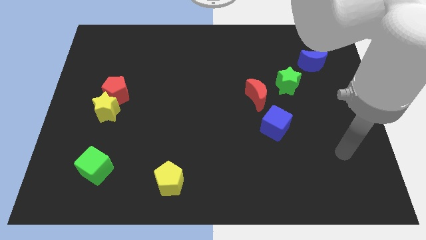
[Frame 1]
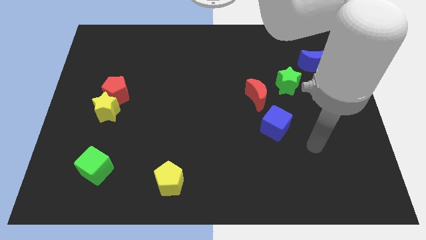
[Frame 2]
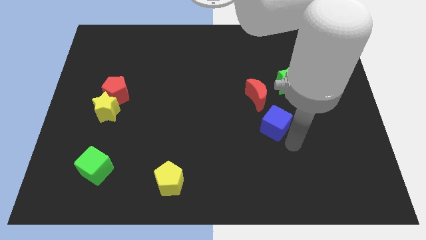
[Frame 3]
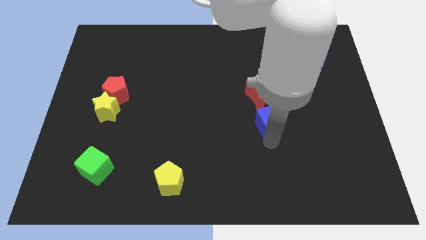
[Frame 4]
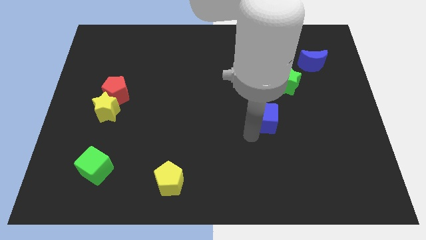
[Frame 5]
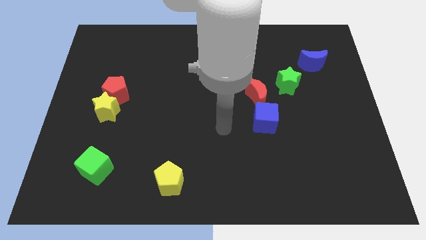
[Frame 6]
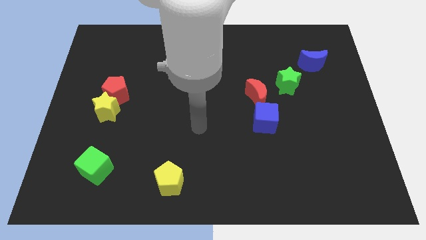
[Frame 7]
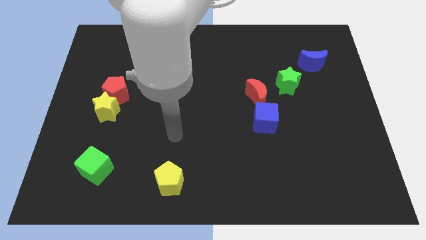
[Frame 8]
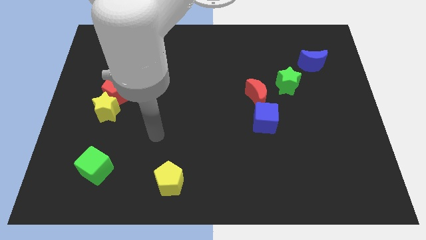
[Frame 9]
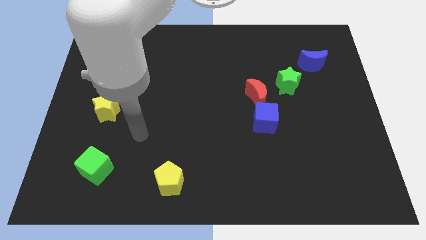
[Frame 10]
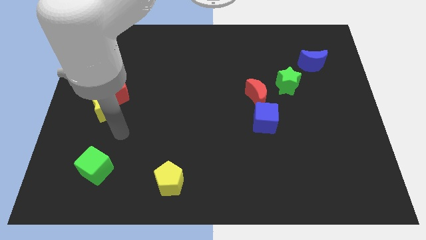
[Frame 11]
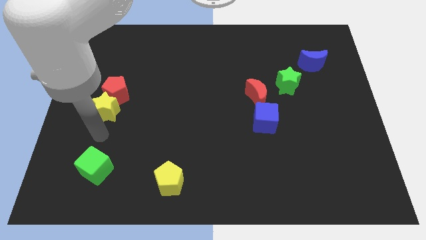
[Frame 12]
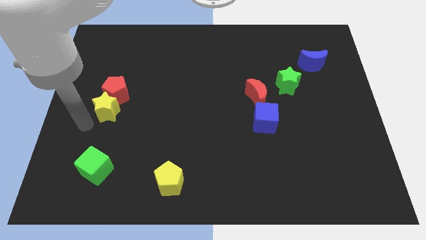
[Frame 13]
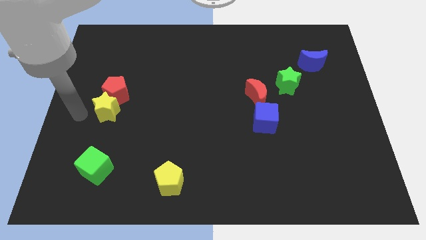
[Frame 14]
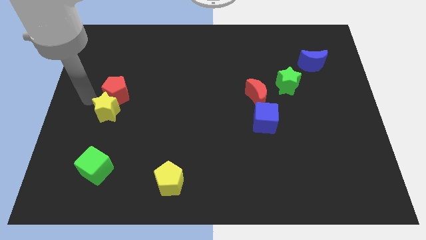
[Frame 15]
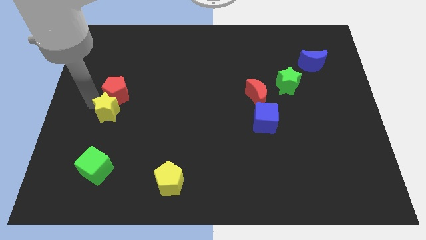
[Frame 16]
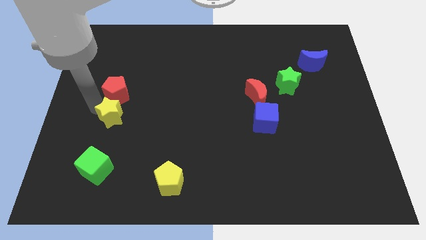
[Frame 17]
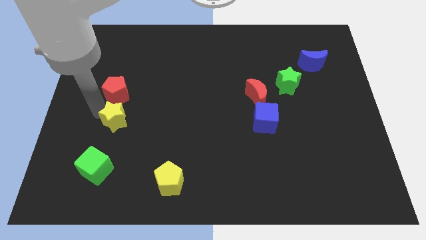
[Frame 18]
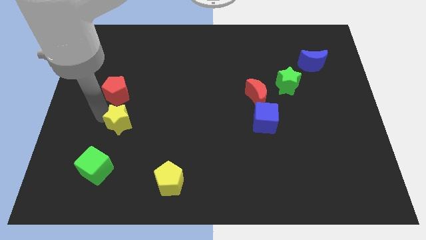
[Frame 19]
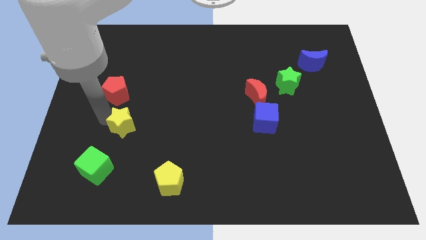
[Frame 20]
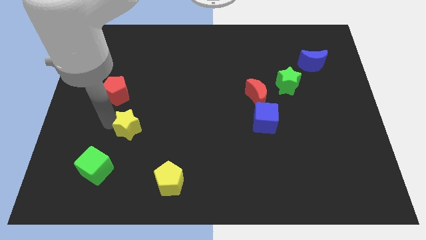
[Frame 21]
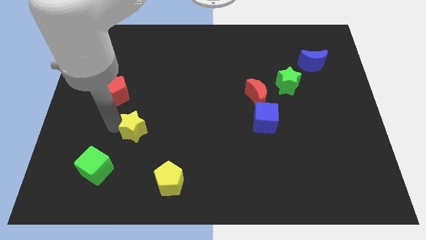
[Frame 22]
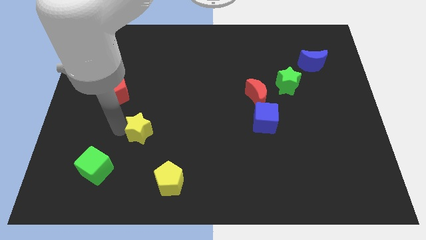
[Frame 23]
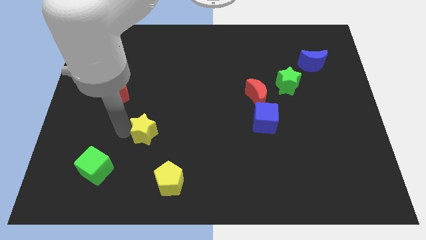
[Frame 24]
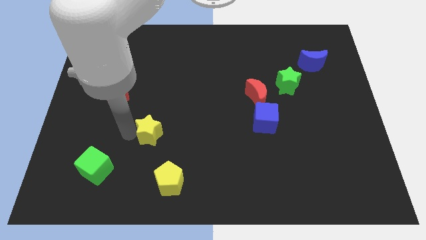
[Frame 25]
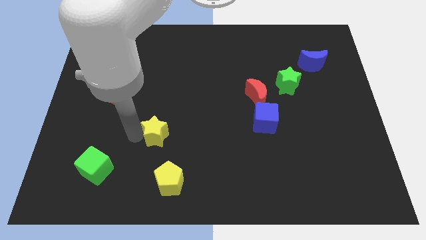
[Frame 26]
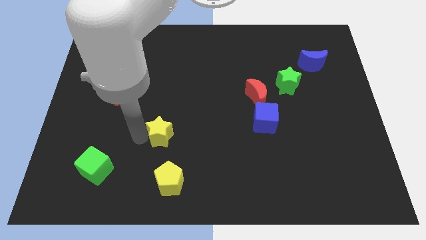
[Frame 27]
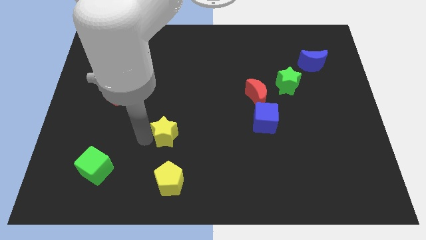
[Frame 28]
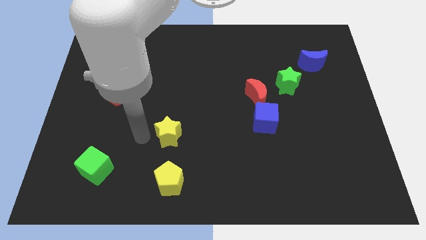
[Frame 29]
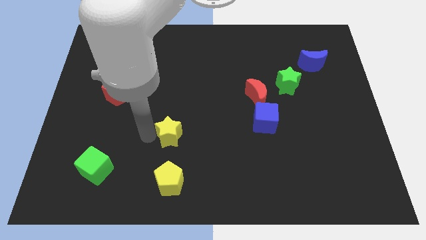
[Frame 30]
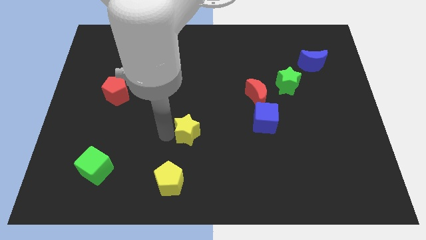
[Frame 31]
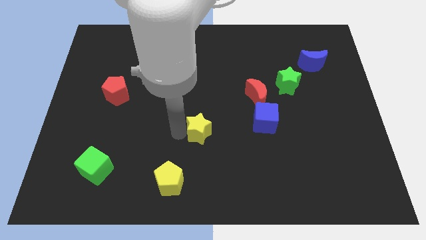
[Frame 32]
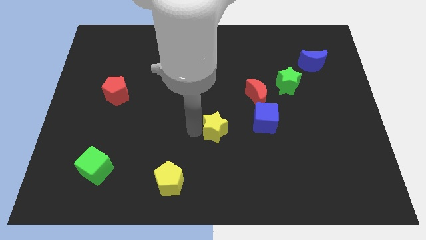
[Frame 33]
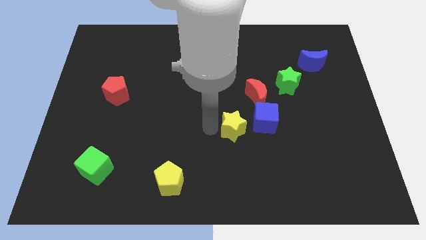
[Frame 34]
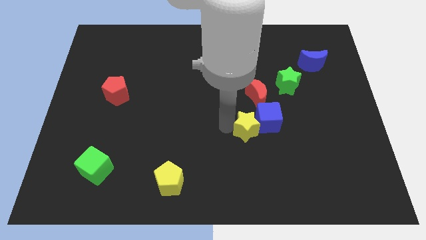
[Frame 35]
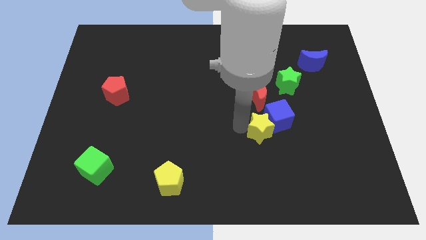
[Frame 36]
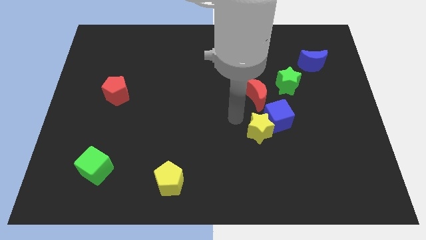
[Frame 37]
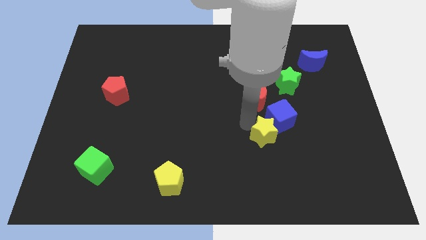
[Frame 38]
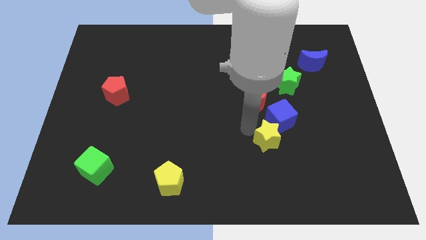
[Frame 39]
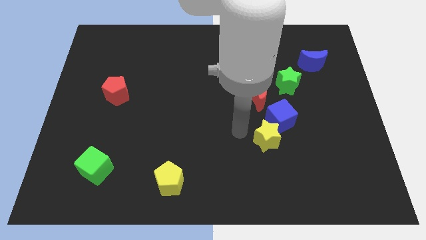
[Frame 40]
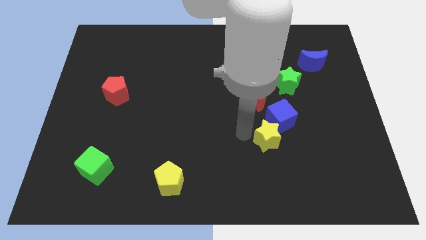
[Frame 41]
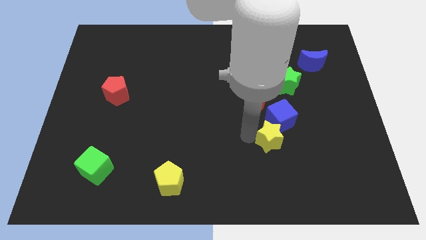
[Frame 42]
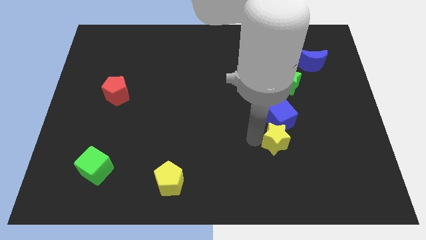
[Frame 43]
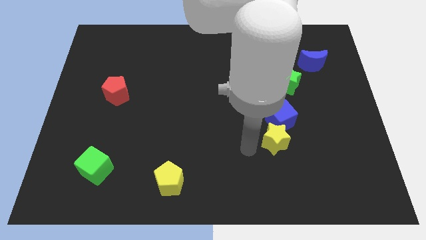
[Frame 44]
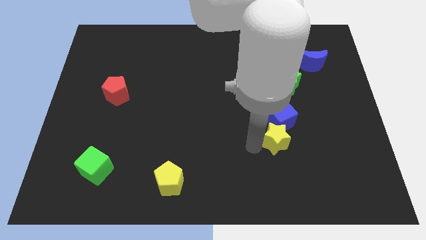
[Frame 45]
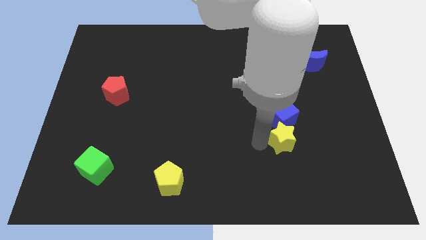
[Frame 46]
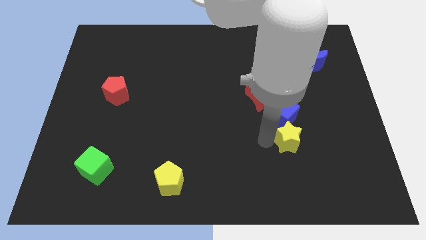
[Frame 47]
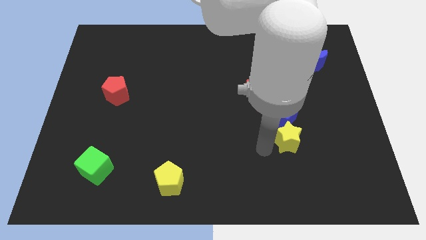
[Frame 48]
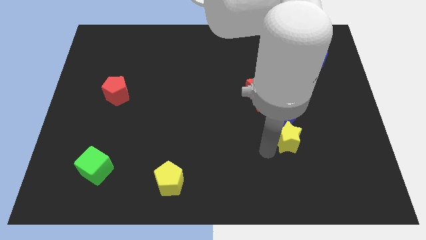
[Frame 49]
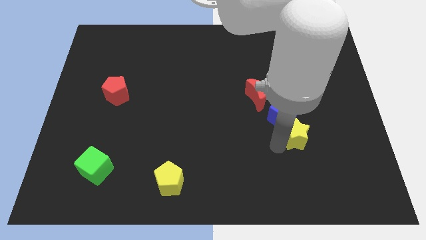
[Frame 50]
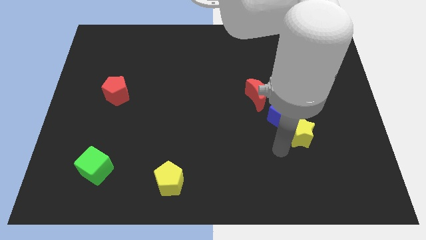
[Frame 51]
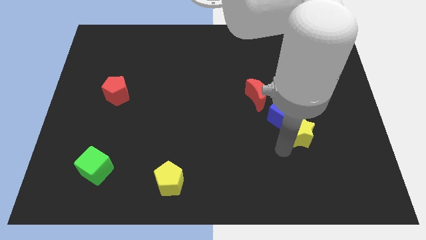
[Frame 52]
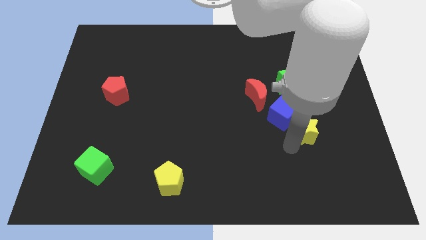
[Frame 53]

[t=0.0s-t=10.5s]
put the yellow star to the right side of the blue cube

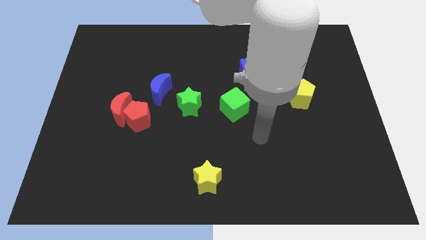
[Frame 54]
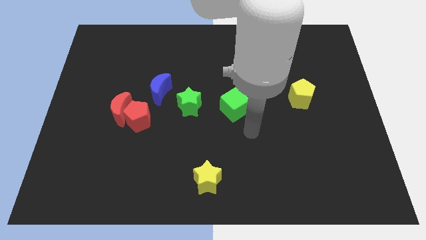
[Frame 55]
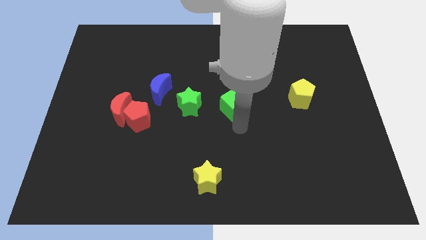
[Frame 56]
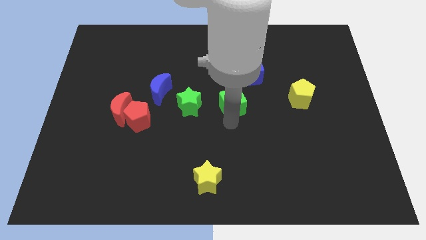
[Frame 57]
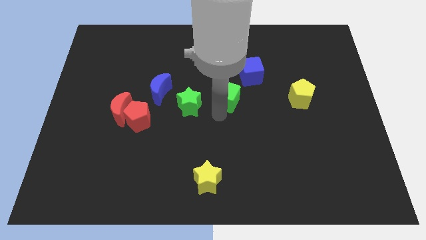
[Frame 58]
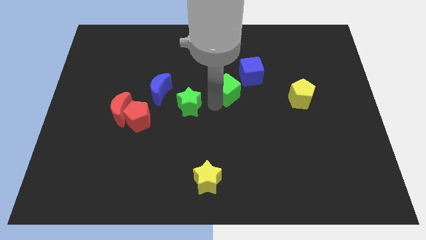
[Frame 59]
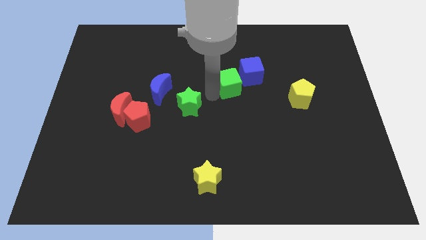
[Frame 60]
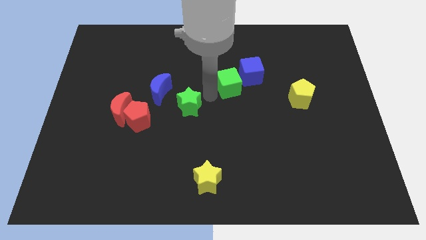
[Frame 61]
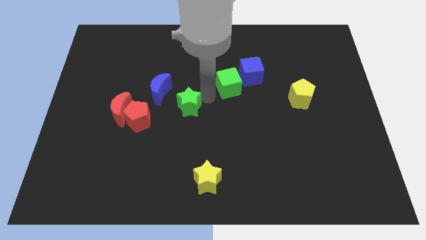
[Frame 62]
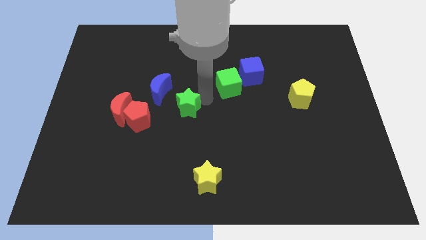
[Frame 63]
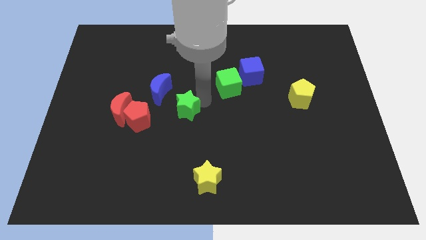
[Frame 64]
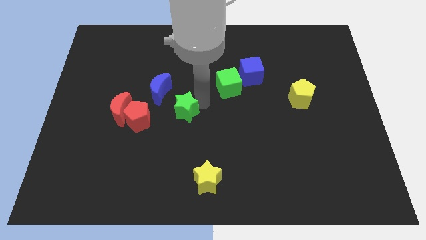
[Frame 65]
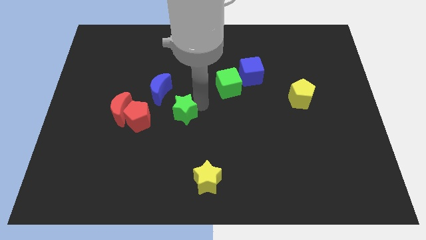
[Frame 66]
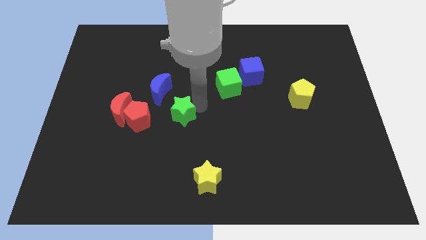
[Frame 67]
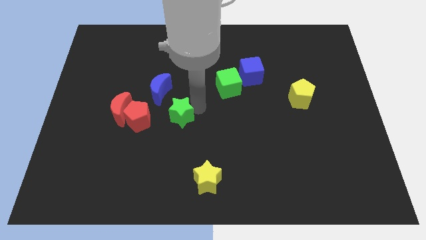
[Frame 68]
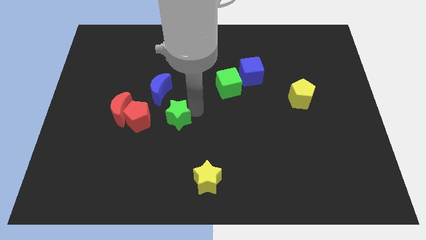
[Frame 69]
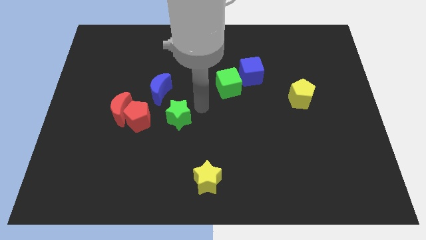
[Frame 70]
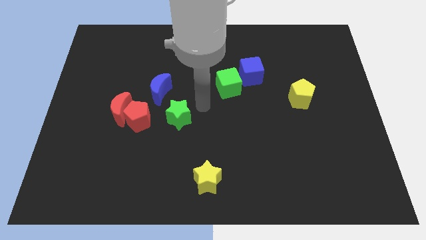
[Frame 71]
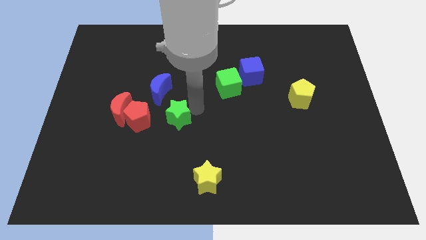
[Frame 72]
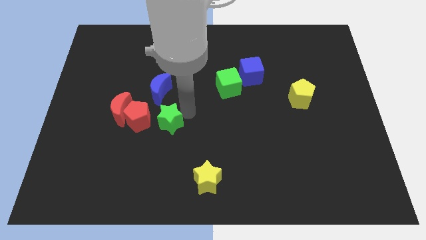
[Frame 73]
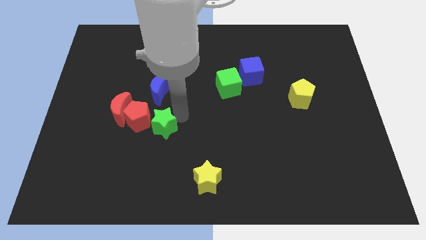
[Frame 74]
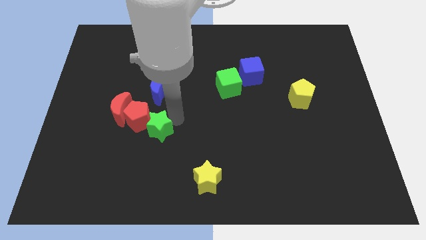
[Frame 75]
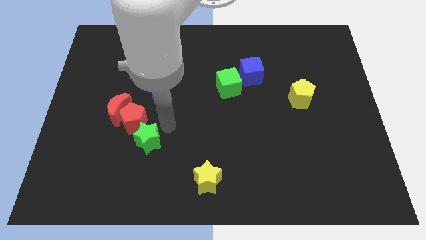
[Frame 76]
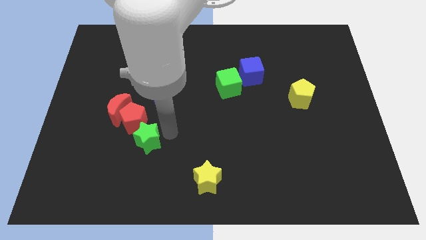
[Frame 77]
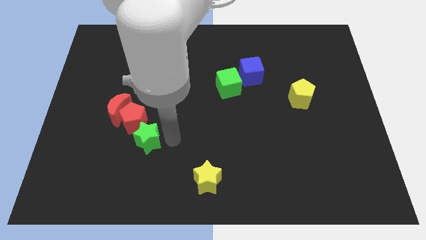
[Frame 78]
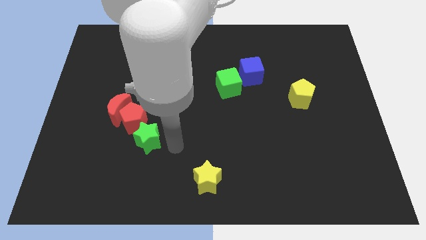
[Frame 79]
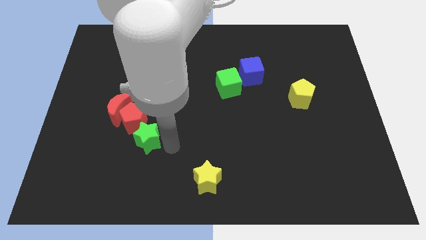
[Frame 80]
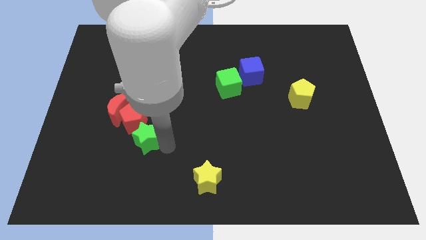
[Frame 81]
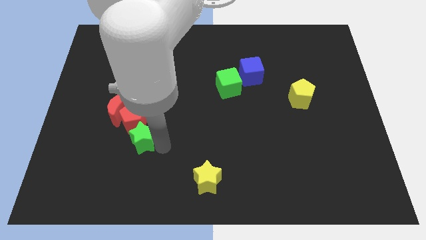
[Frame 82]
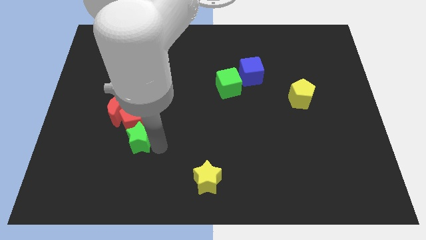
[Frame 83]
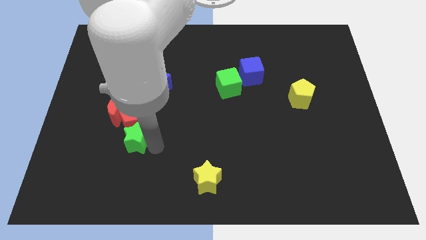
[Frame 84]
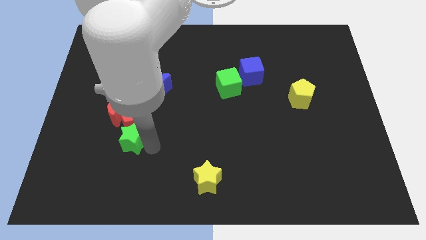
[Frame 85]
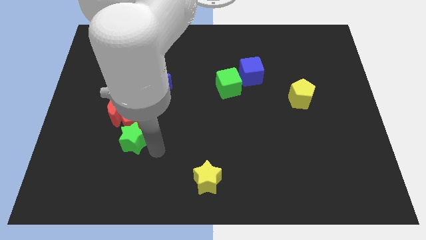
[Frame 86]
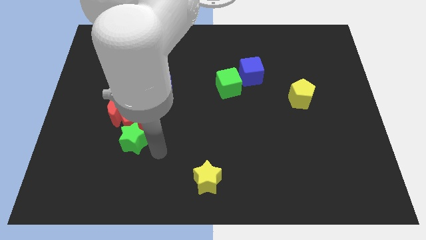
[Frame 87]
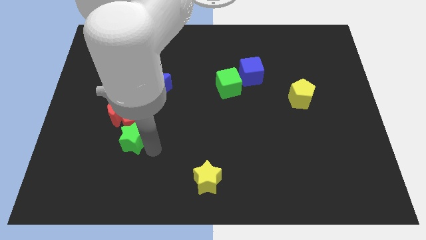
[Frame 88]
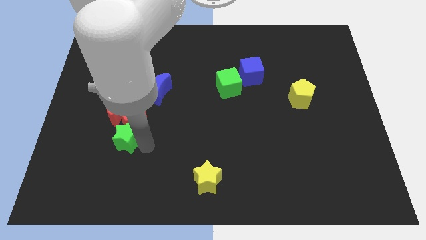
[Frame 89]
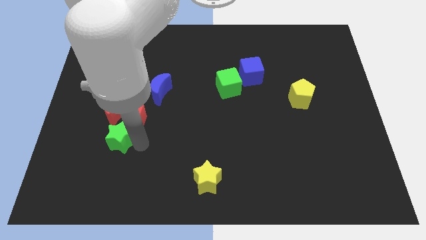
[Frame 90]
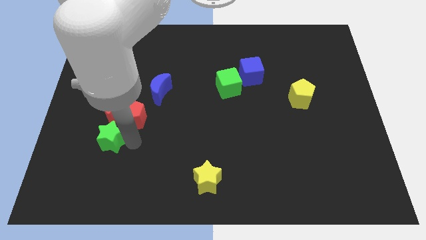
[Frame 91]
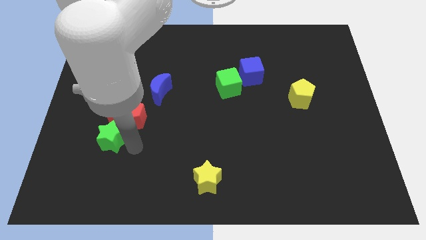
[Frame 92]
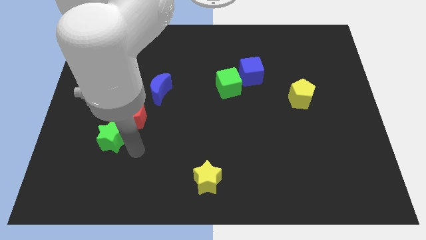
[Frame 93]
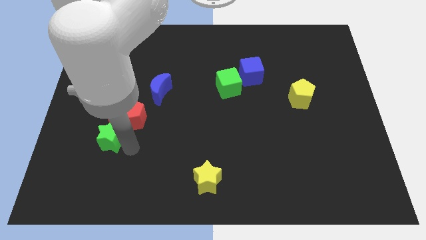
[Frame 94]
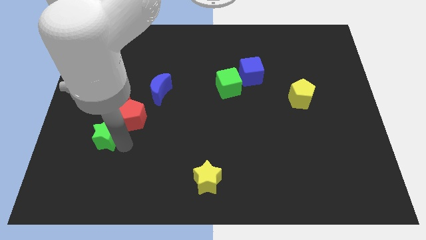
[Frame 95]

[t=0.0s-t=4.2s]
push the green star to the bottom left side of the red moon
